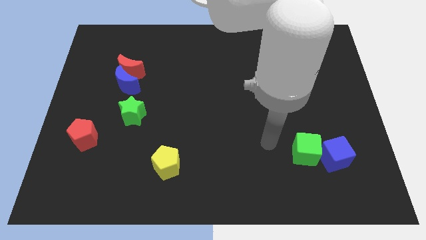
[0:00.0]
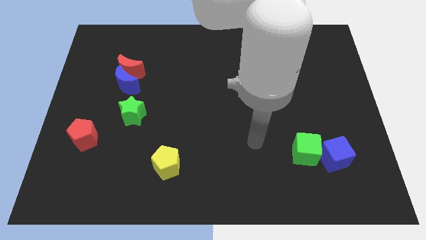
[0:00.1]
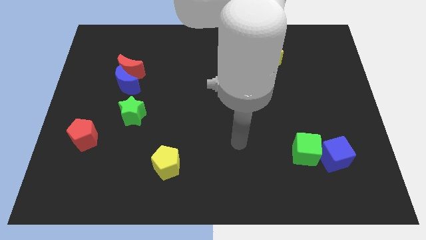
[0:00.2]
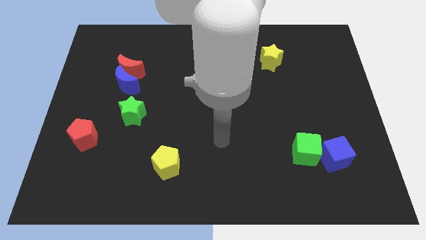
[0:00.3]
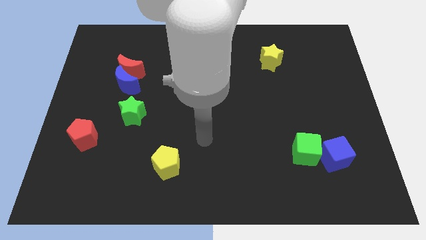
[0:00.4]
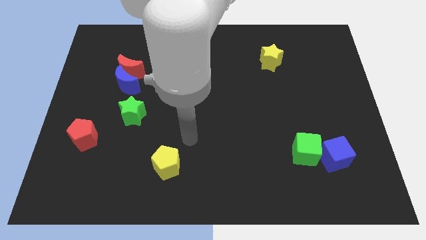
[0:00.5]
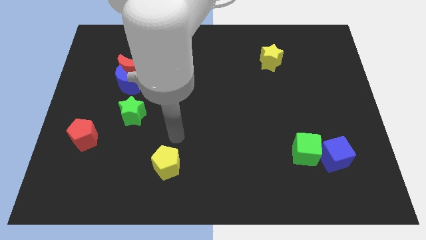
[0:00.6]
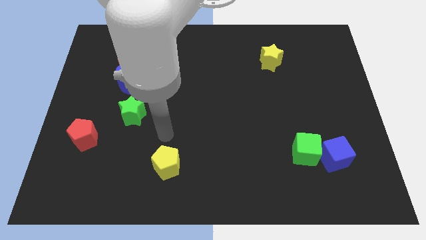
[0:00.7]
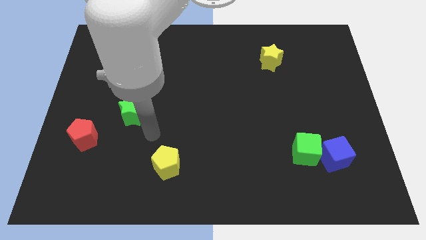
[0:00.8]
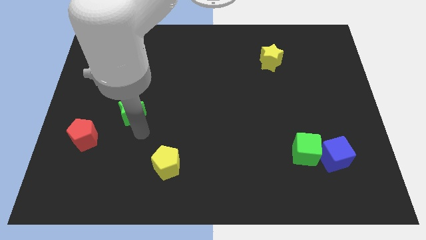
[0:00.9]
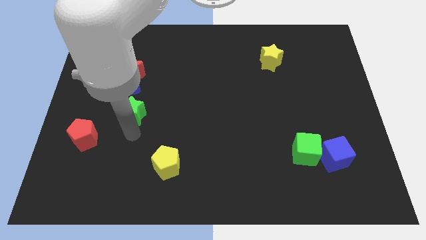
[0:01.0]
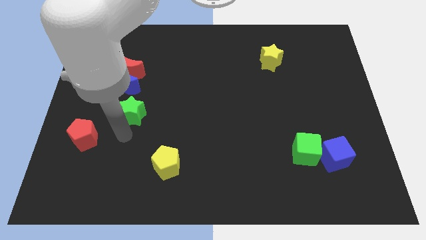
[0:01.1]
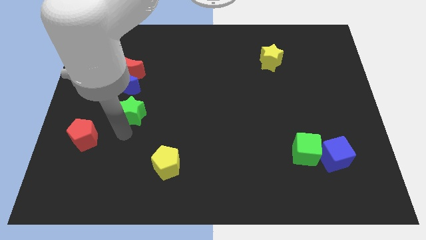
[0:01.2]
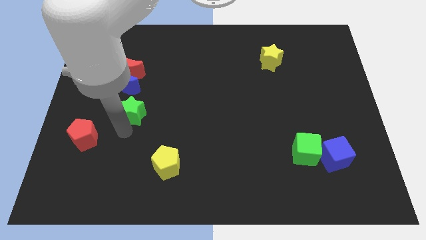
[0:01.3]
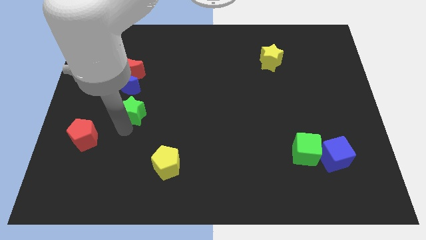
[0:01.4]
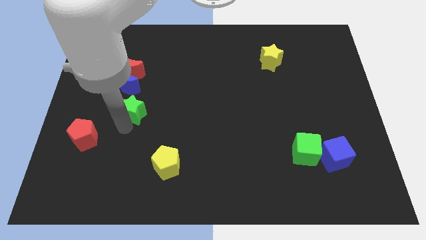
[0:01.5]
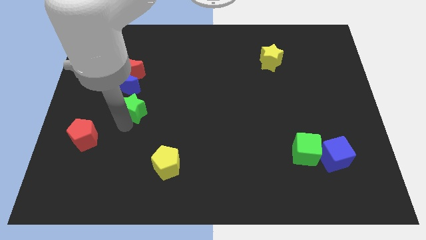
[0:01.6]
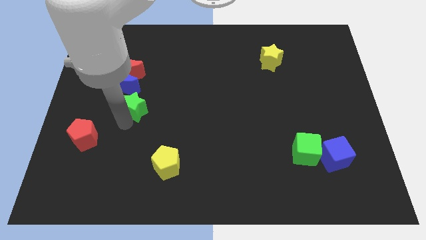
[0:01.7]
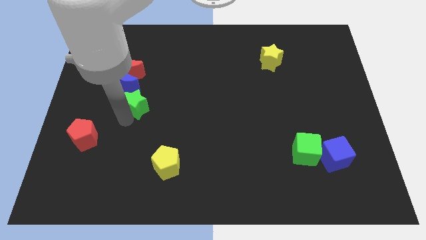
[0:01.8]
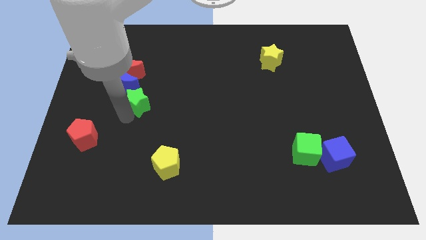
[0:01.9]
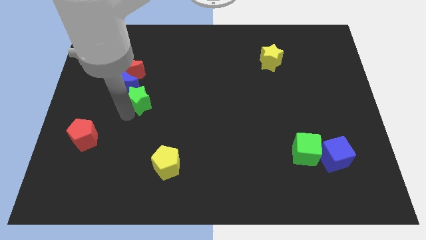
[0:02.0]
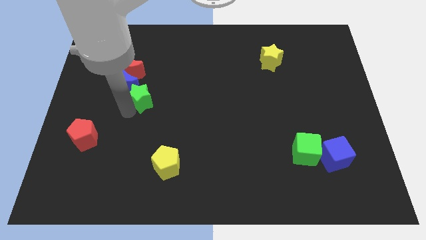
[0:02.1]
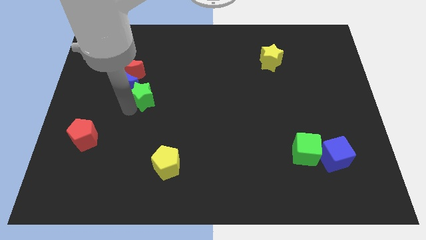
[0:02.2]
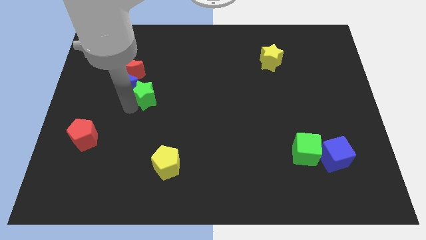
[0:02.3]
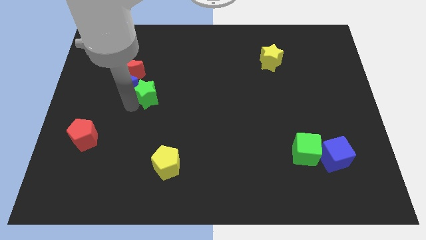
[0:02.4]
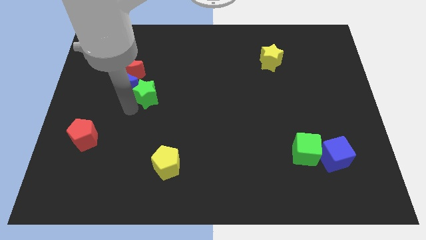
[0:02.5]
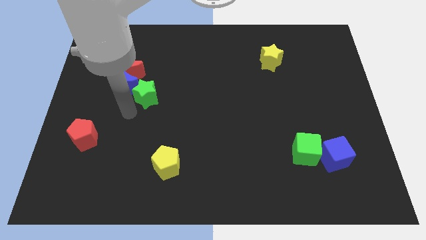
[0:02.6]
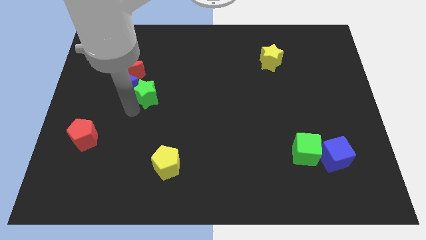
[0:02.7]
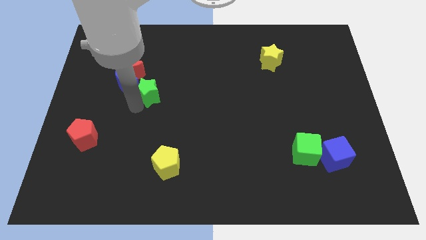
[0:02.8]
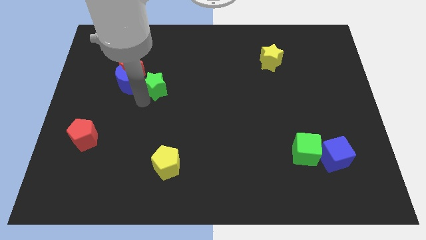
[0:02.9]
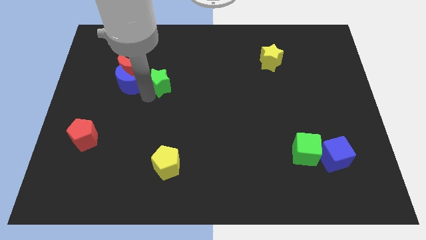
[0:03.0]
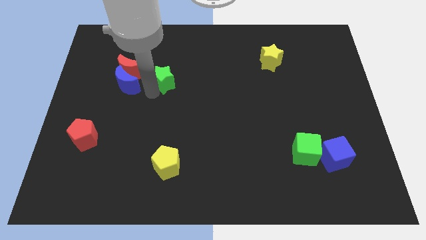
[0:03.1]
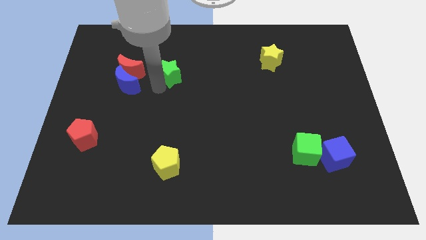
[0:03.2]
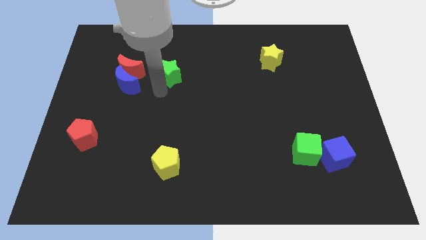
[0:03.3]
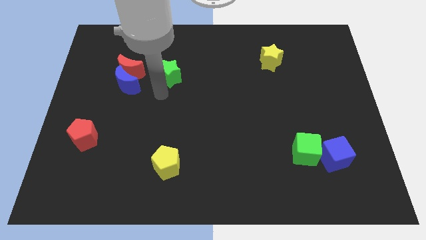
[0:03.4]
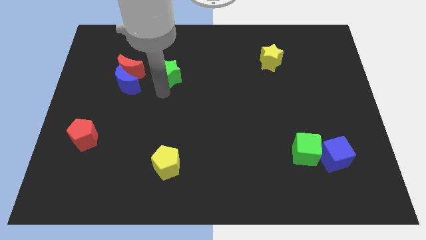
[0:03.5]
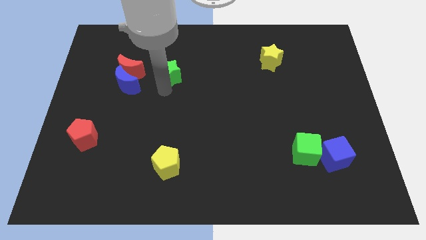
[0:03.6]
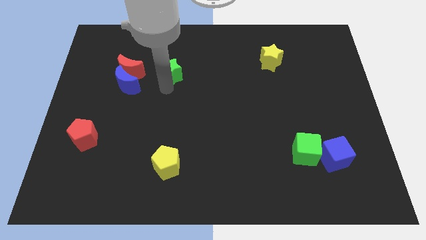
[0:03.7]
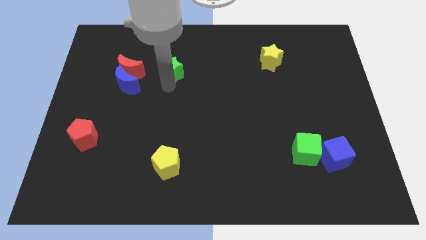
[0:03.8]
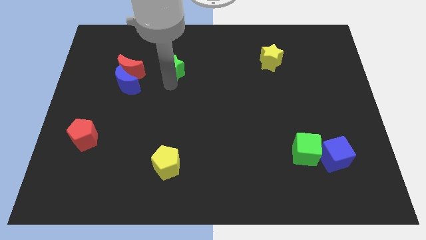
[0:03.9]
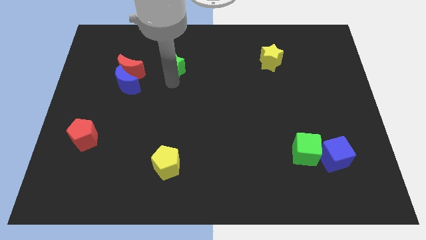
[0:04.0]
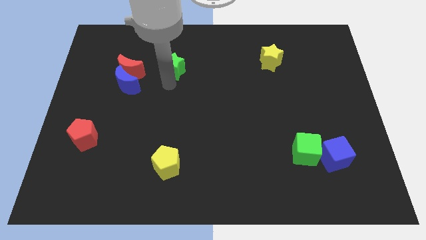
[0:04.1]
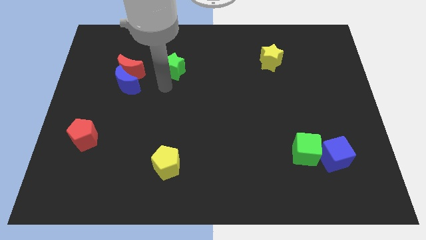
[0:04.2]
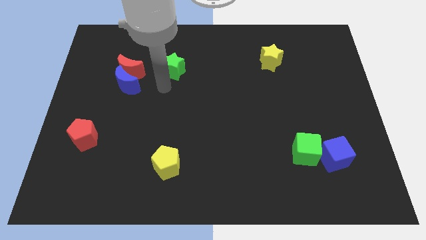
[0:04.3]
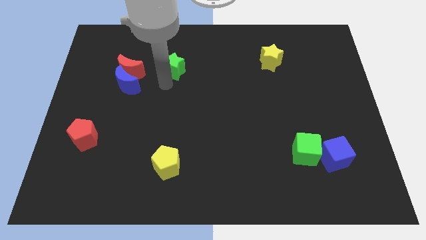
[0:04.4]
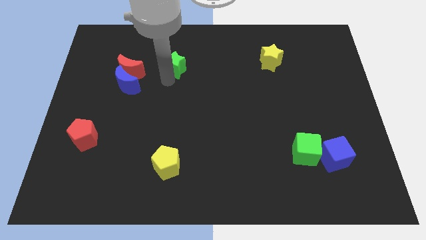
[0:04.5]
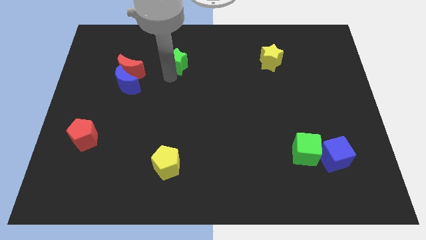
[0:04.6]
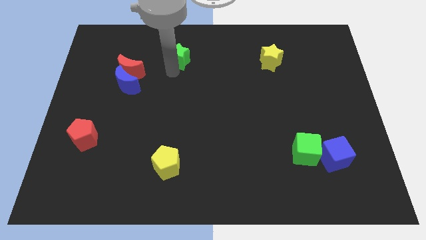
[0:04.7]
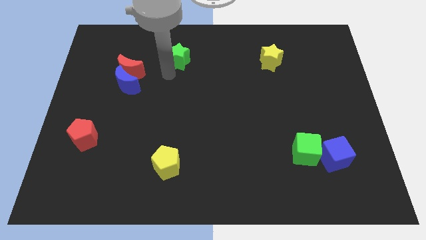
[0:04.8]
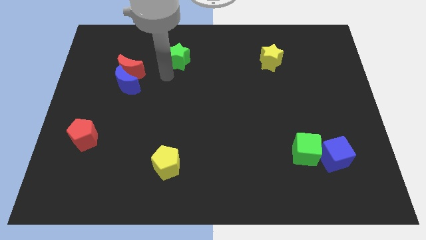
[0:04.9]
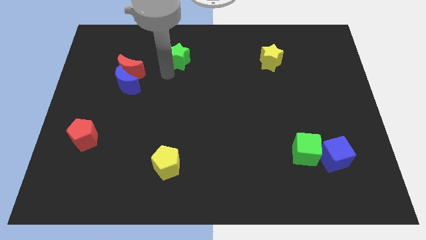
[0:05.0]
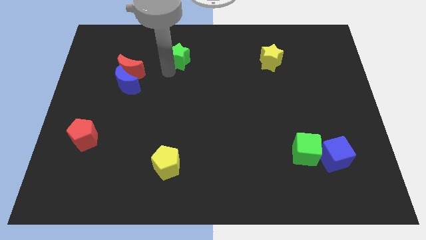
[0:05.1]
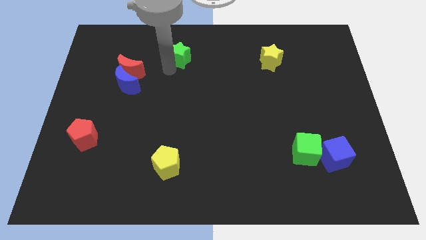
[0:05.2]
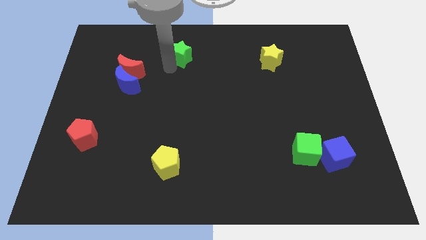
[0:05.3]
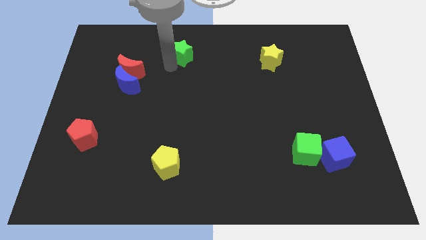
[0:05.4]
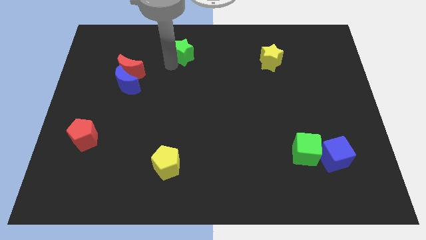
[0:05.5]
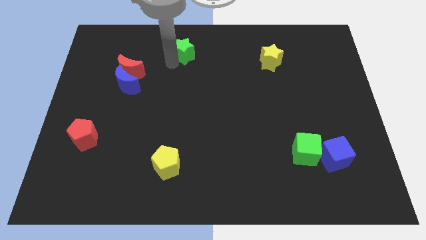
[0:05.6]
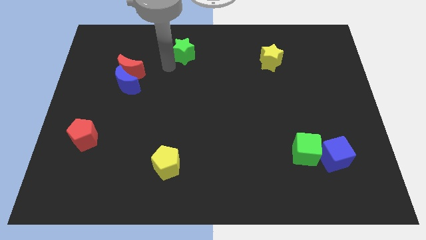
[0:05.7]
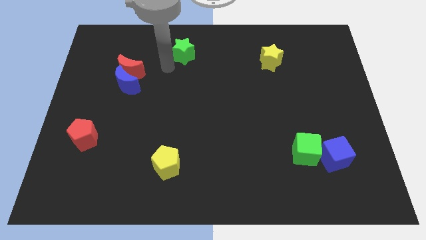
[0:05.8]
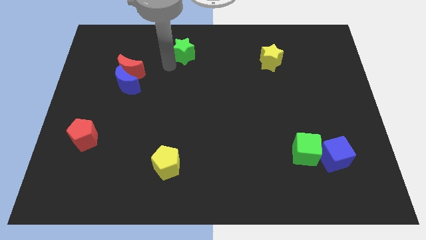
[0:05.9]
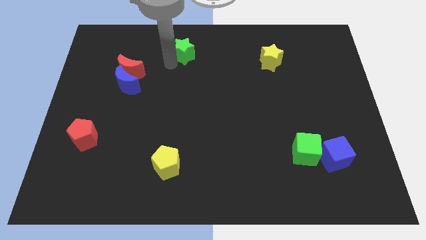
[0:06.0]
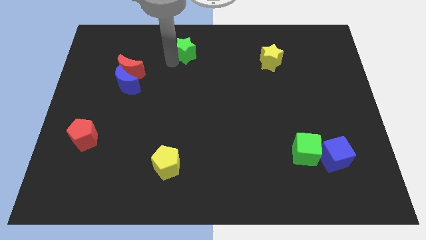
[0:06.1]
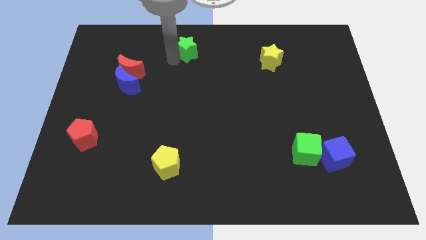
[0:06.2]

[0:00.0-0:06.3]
move the green star to the towards your base
